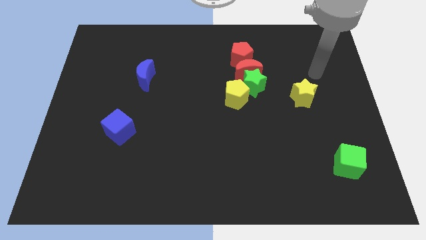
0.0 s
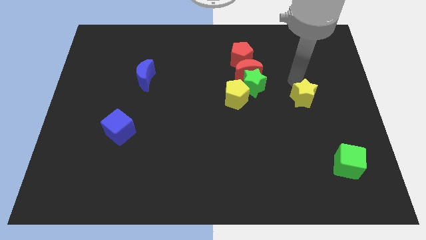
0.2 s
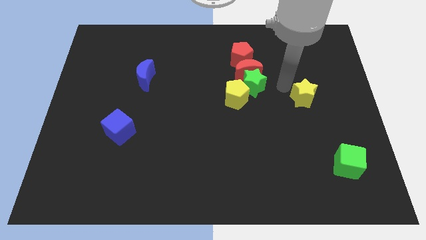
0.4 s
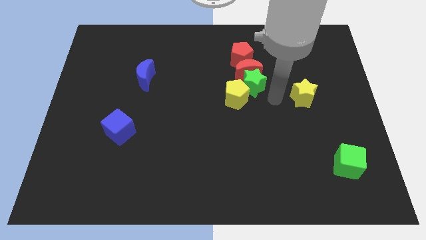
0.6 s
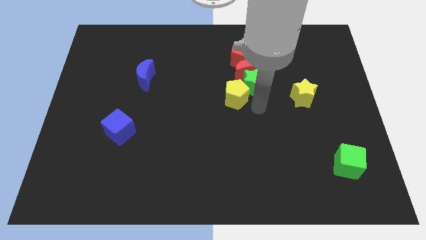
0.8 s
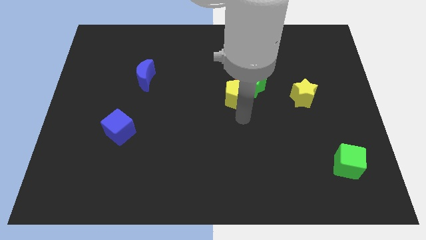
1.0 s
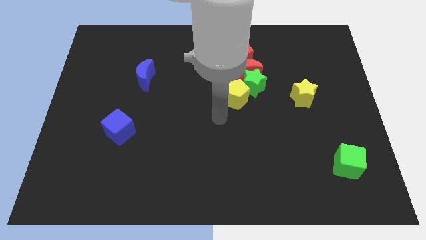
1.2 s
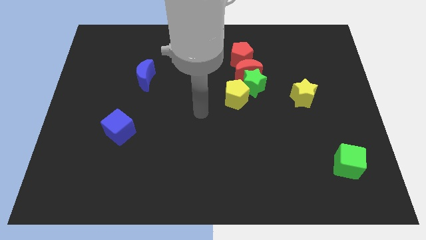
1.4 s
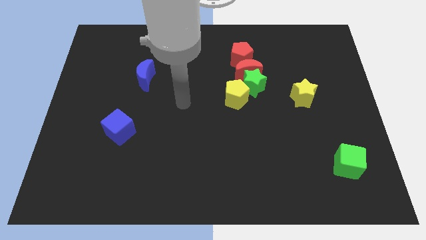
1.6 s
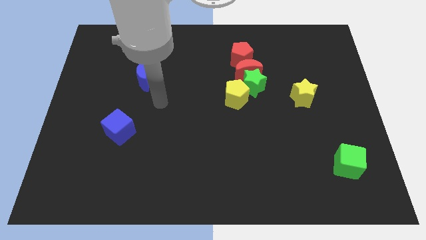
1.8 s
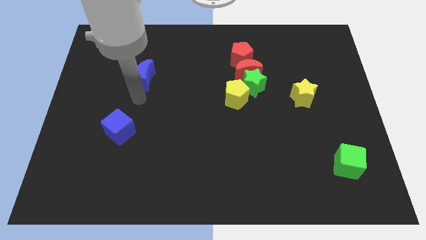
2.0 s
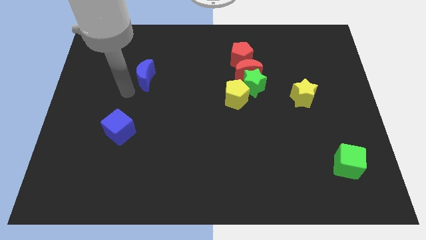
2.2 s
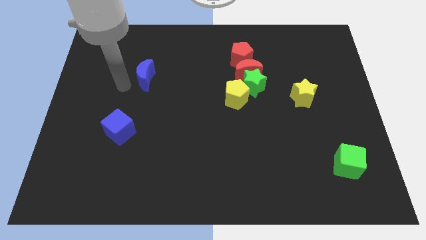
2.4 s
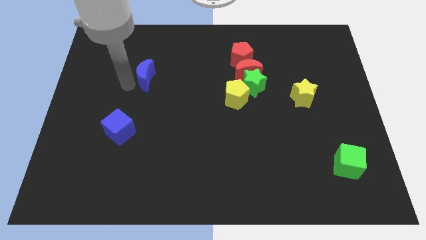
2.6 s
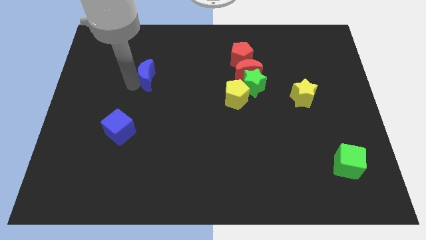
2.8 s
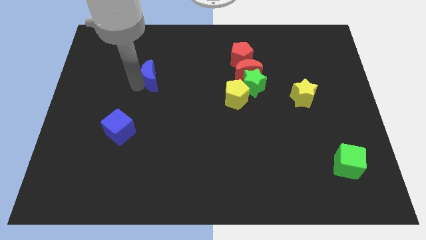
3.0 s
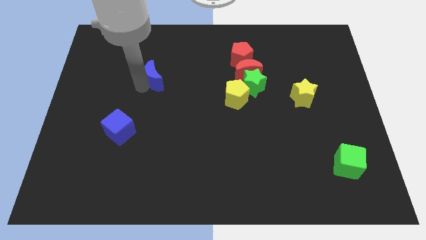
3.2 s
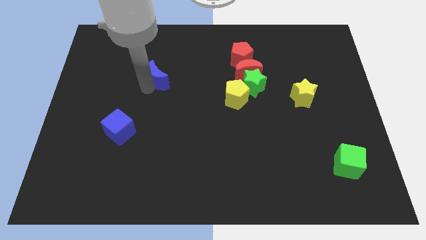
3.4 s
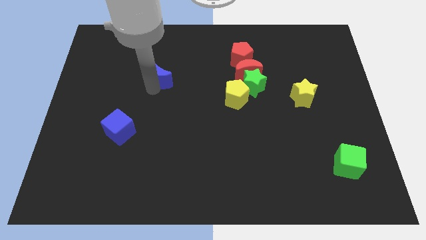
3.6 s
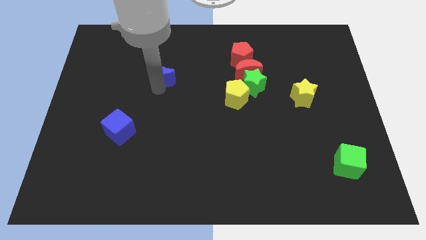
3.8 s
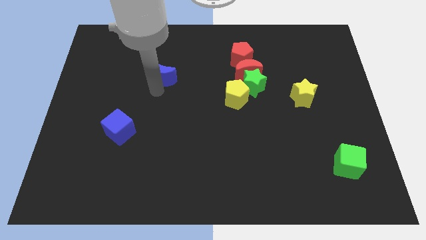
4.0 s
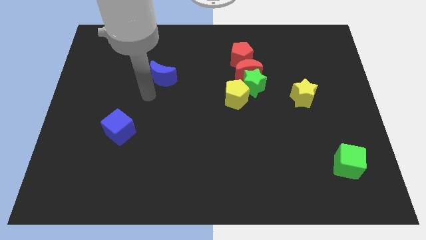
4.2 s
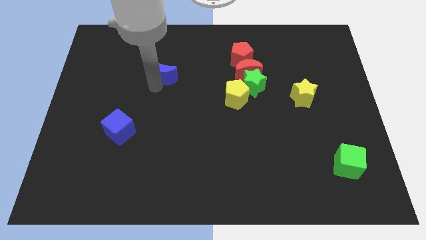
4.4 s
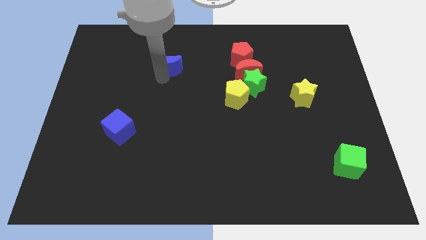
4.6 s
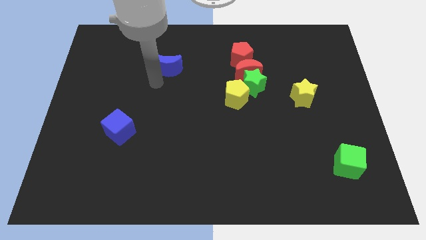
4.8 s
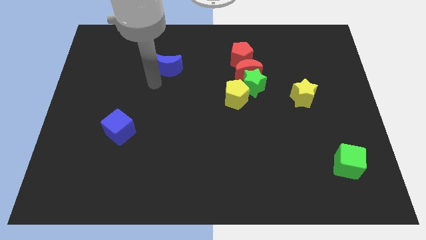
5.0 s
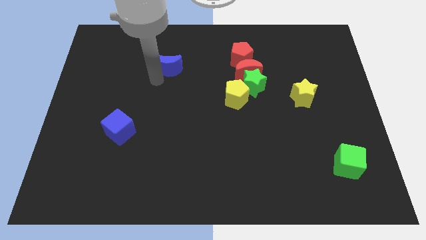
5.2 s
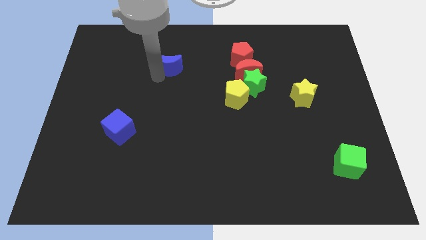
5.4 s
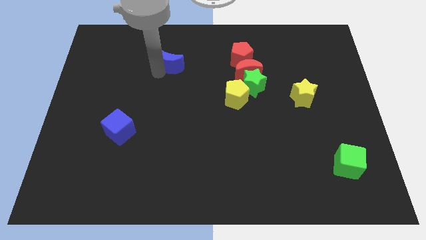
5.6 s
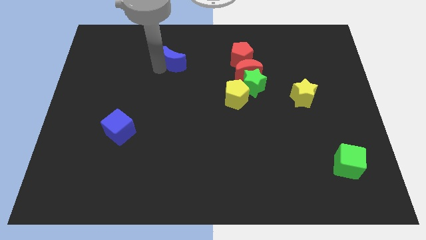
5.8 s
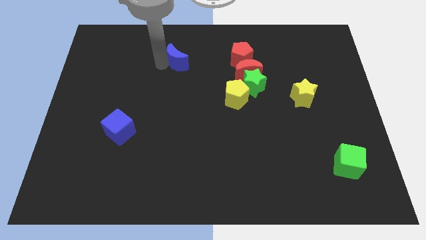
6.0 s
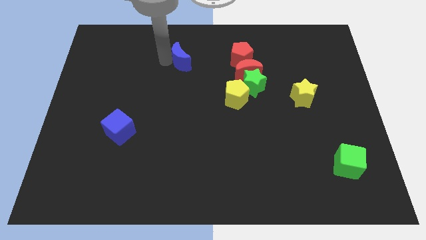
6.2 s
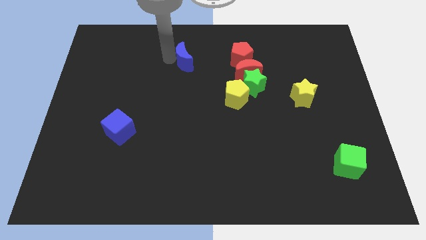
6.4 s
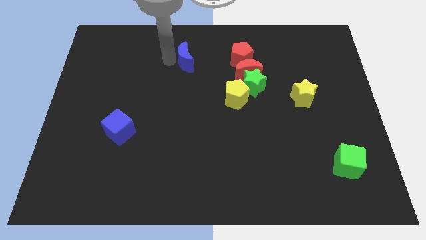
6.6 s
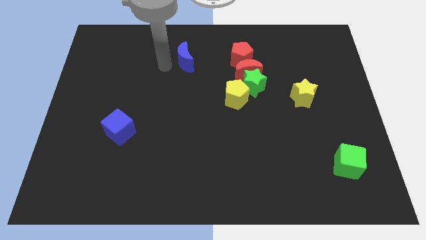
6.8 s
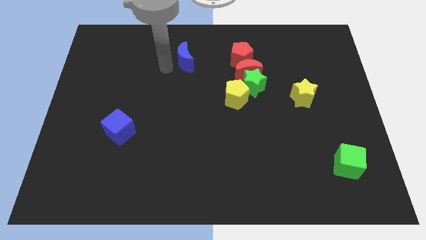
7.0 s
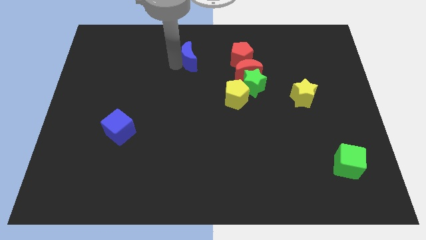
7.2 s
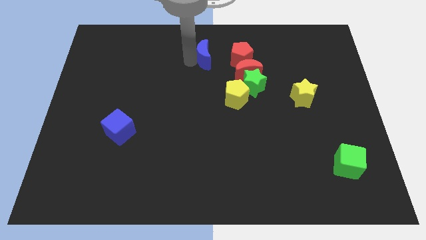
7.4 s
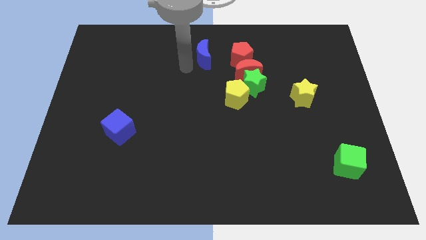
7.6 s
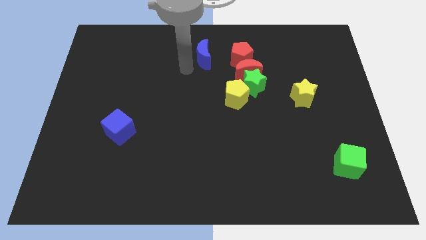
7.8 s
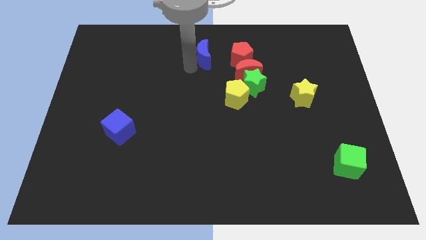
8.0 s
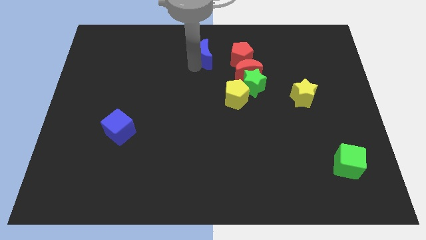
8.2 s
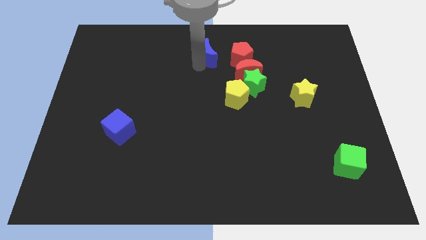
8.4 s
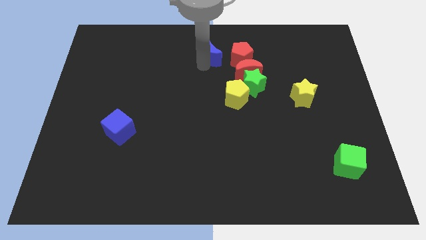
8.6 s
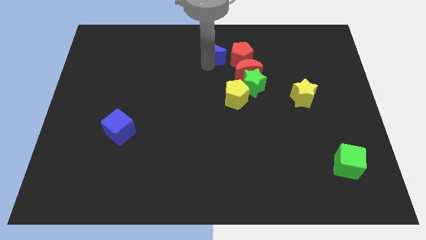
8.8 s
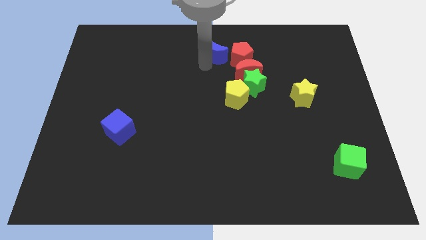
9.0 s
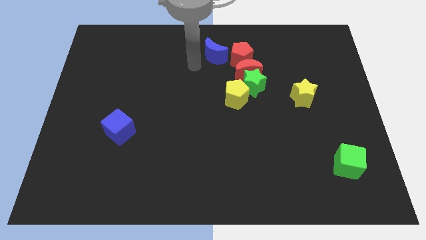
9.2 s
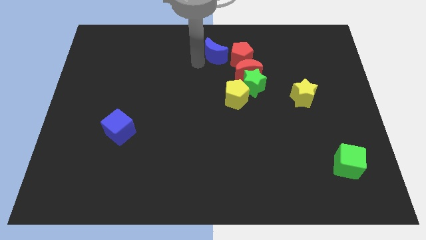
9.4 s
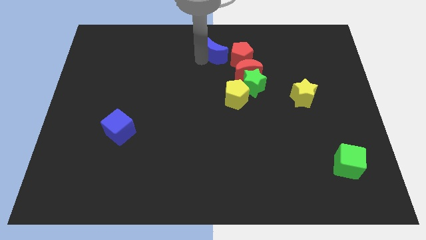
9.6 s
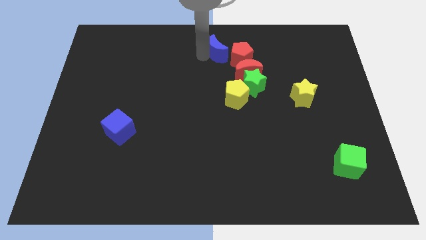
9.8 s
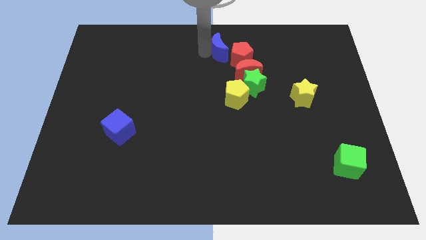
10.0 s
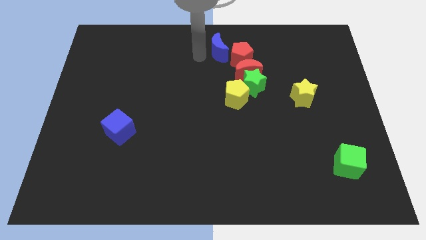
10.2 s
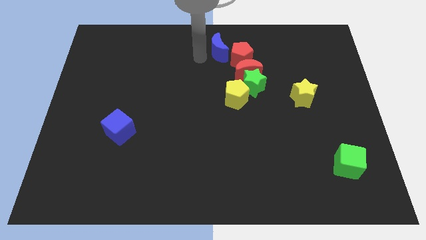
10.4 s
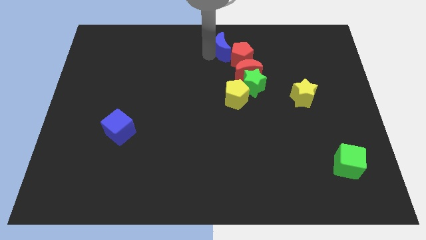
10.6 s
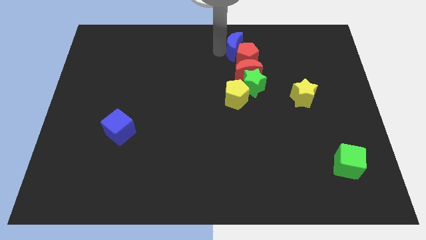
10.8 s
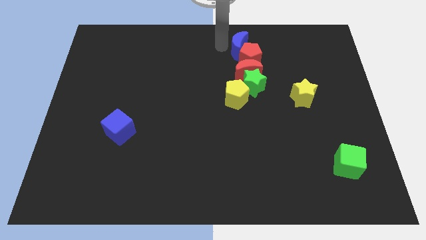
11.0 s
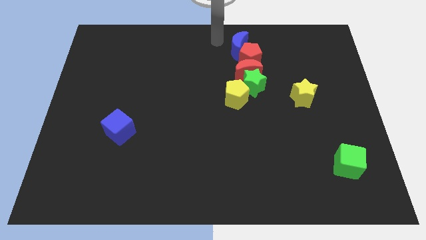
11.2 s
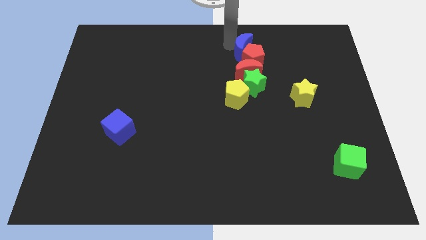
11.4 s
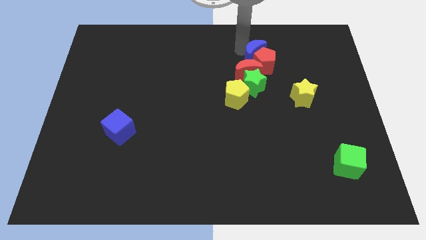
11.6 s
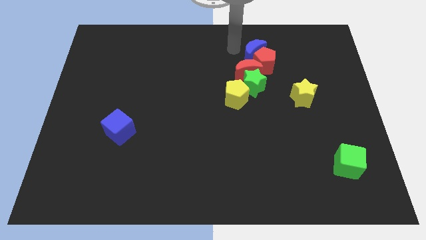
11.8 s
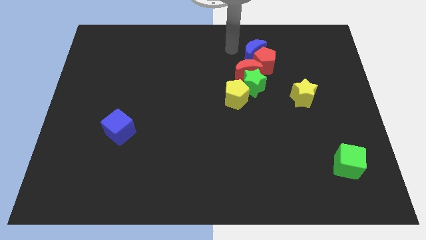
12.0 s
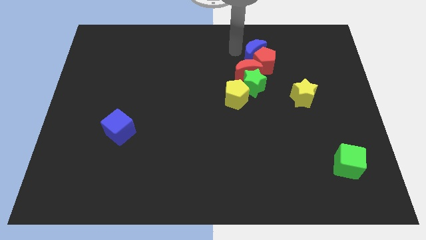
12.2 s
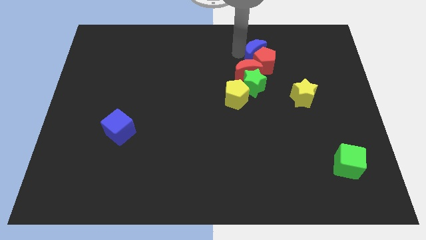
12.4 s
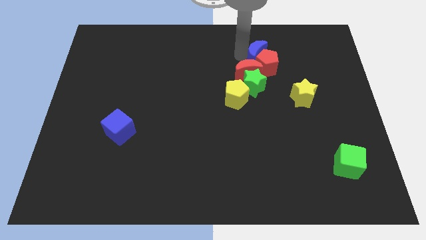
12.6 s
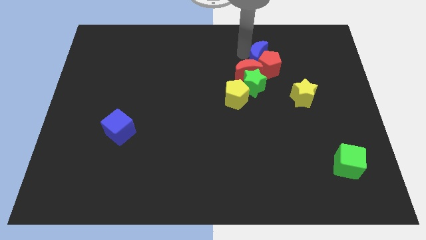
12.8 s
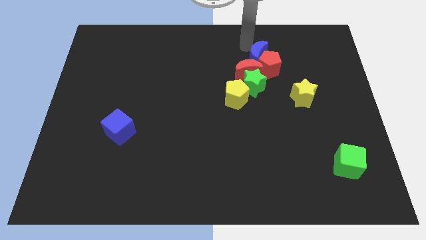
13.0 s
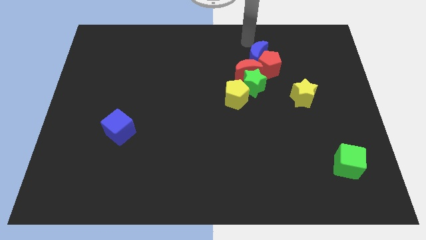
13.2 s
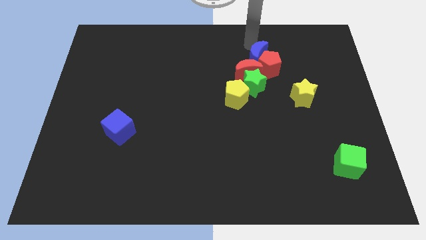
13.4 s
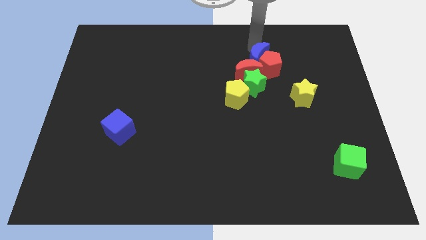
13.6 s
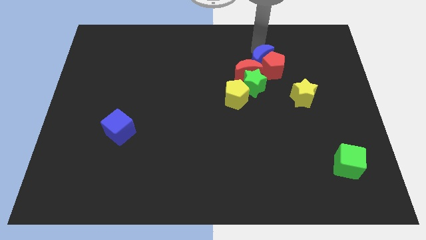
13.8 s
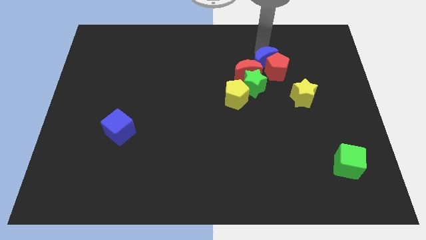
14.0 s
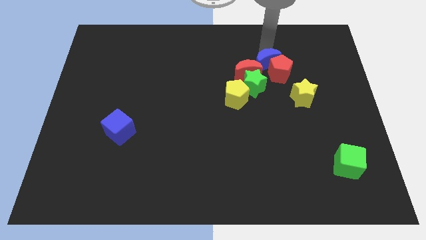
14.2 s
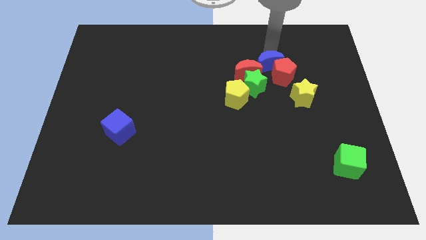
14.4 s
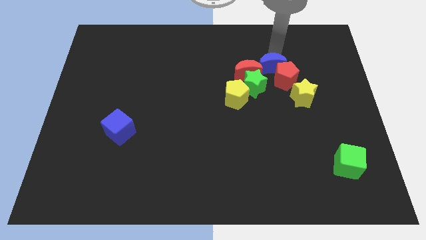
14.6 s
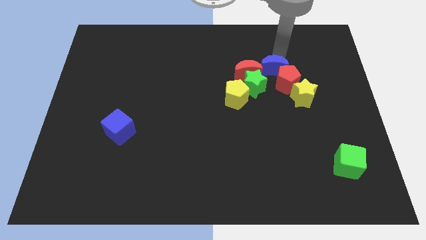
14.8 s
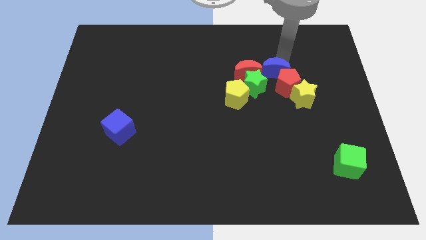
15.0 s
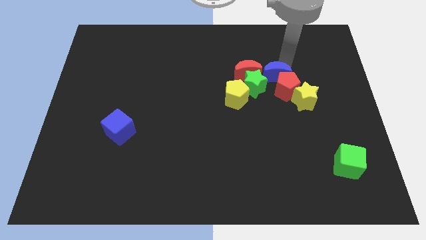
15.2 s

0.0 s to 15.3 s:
move the blue moon diagonally up and to the right of the yellow pentagon
